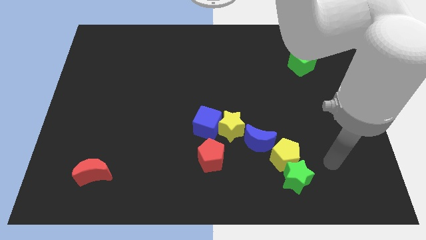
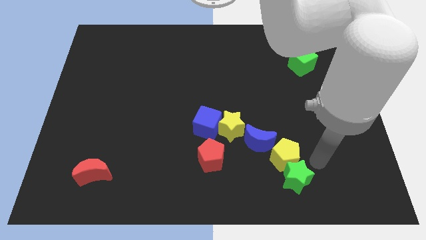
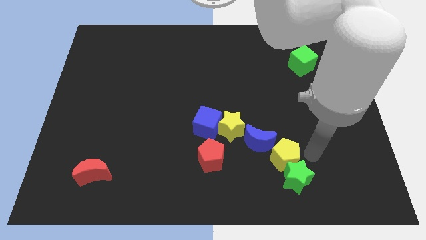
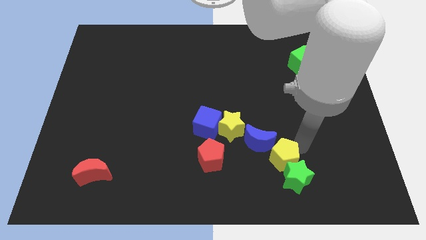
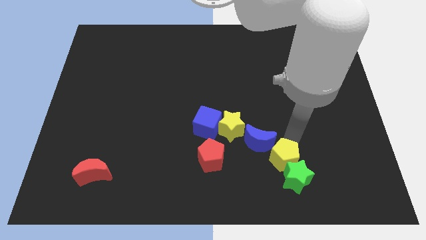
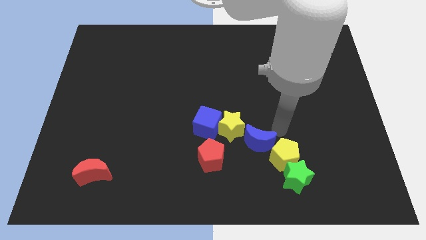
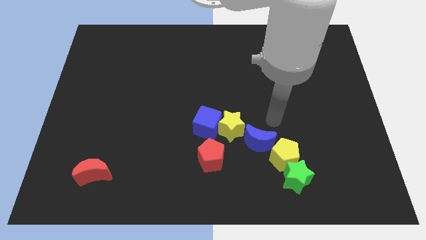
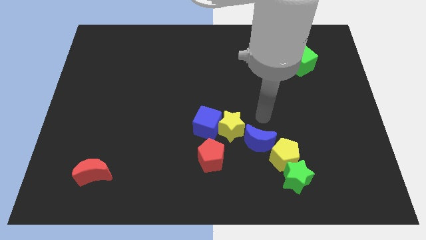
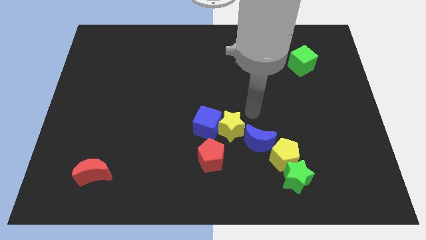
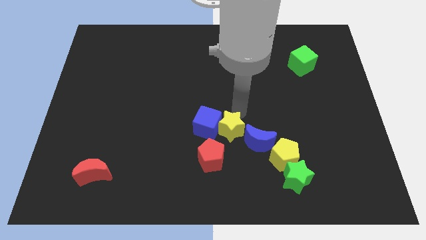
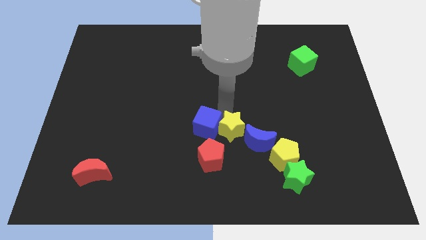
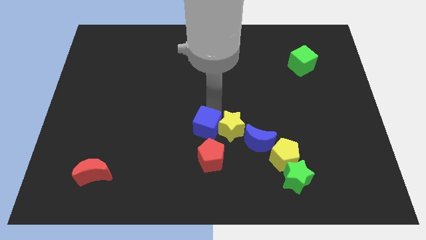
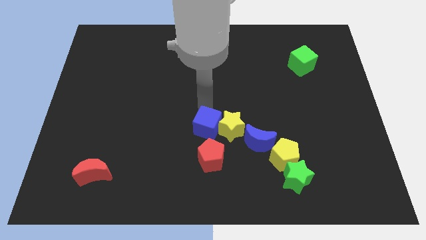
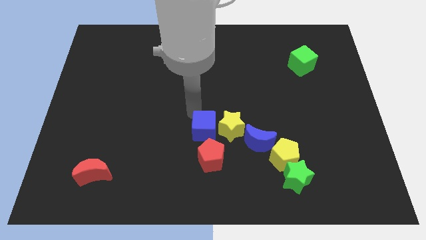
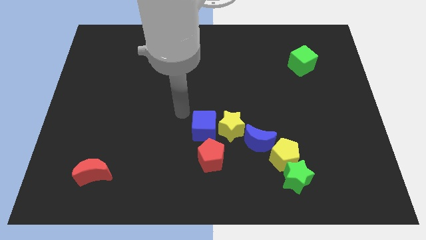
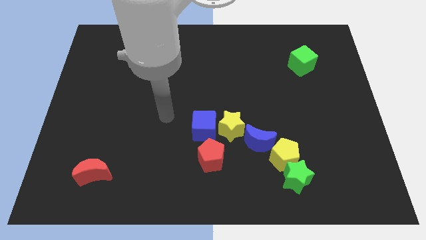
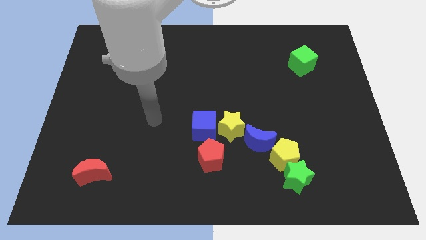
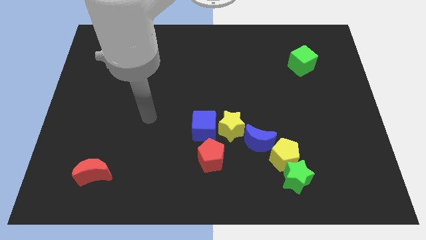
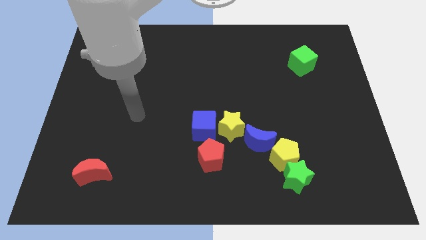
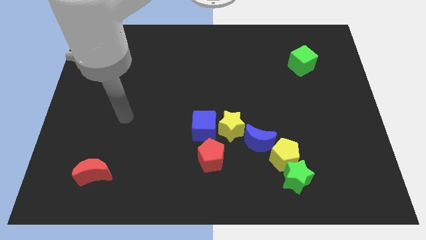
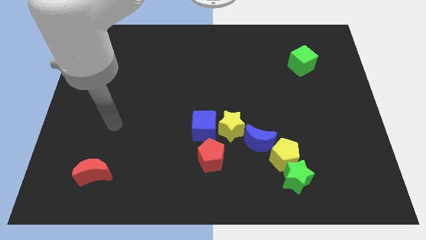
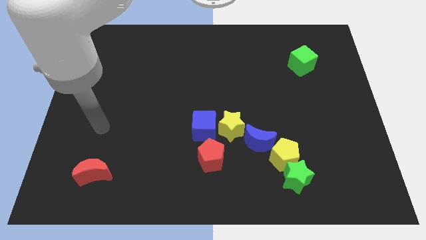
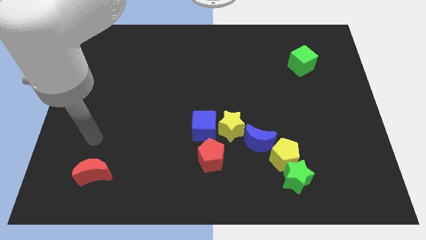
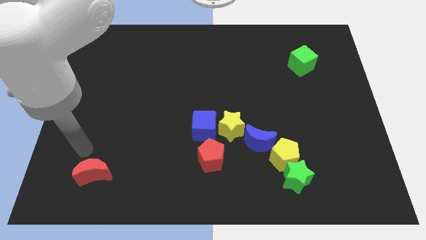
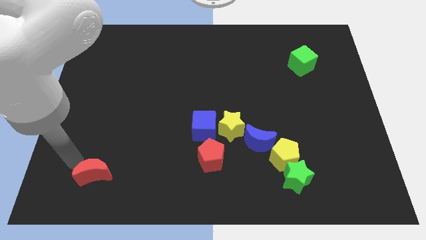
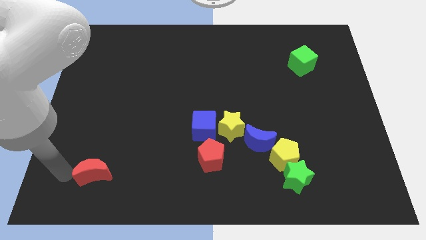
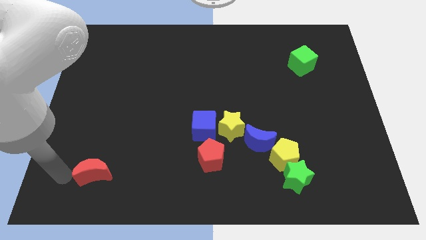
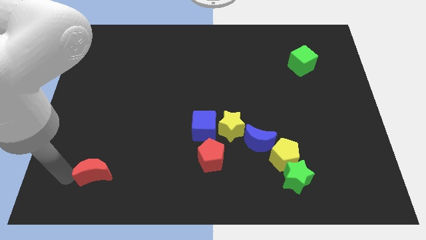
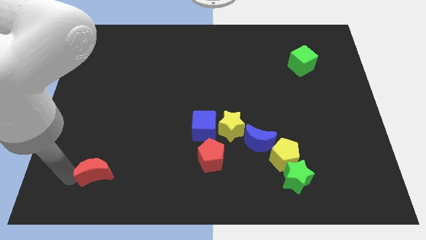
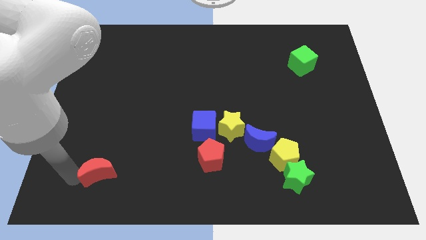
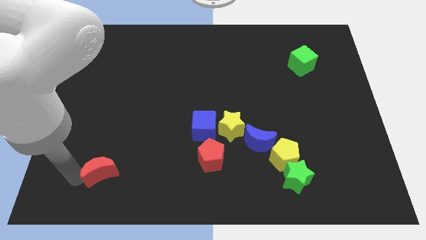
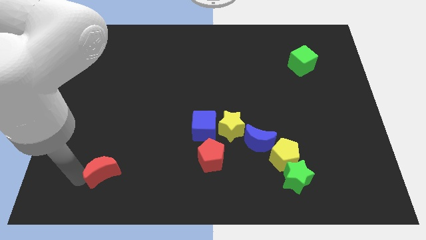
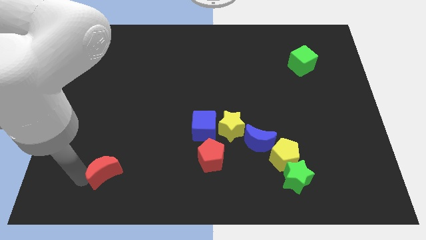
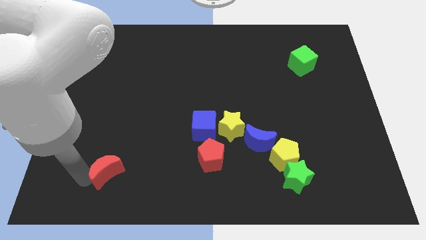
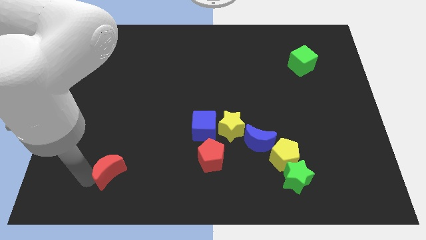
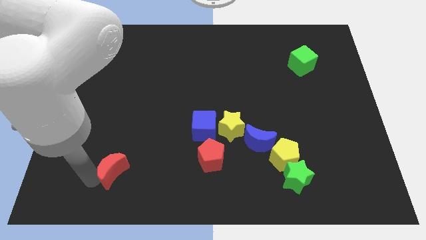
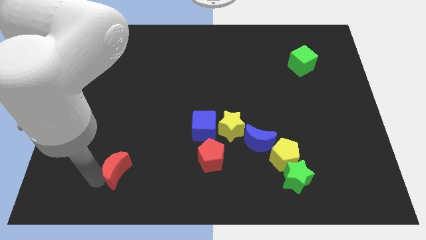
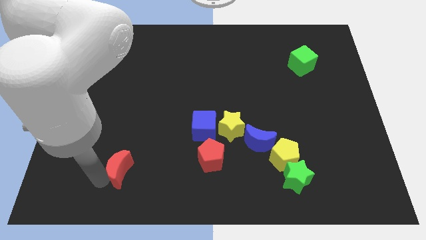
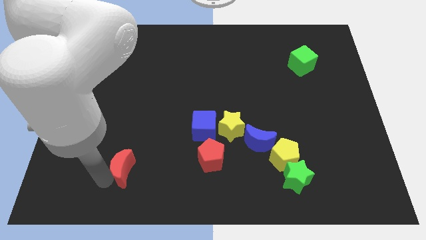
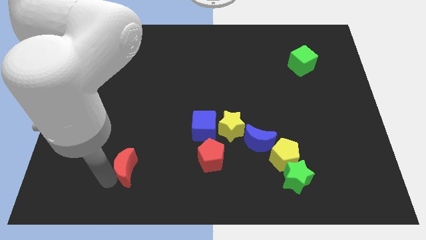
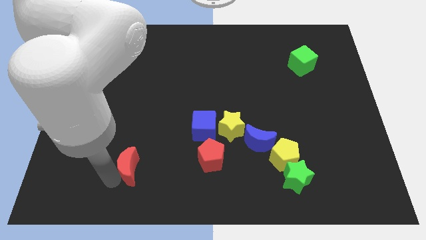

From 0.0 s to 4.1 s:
slightly move the red moon to the right

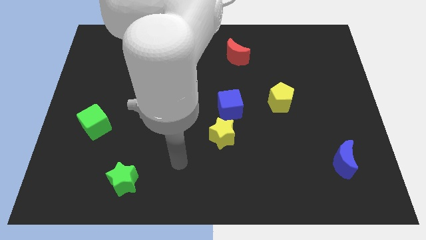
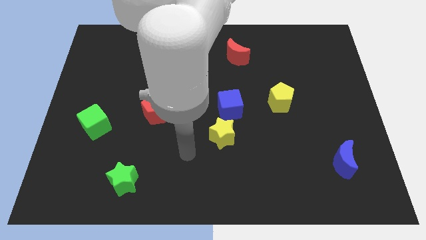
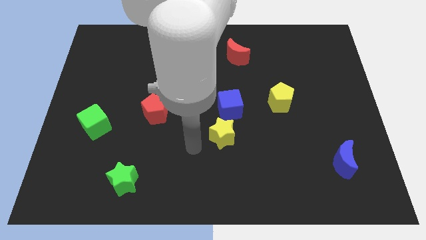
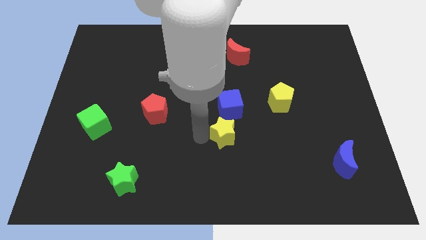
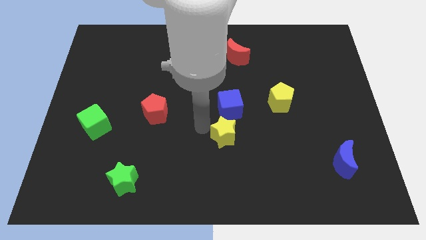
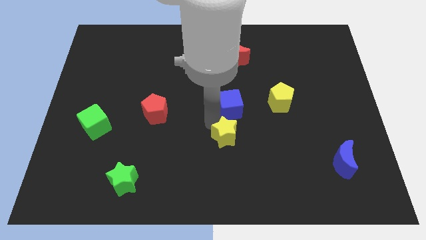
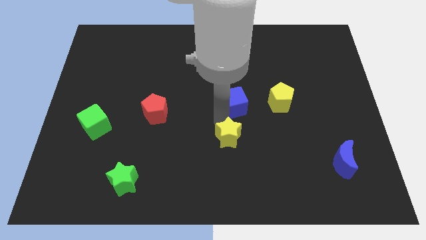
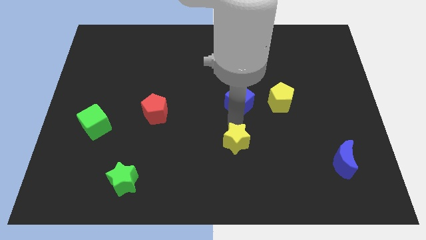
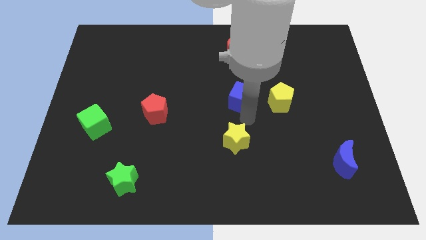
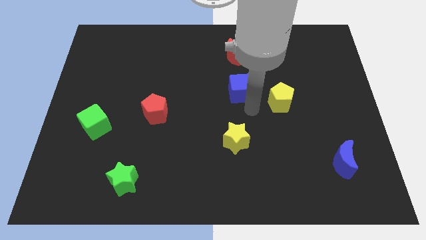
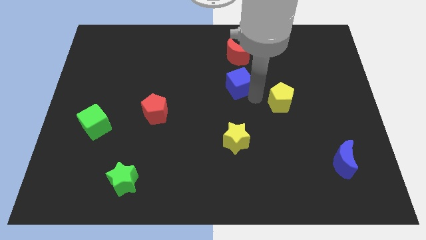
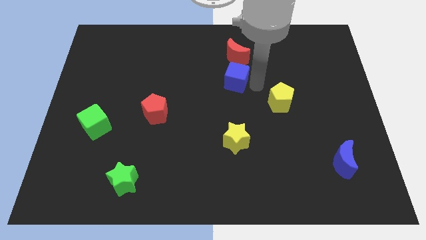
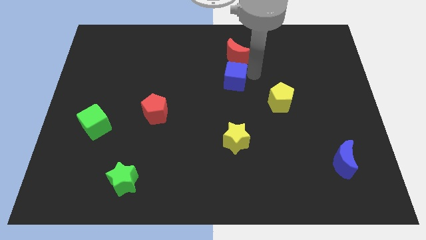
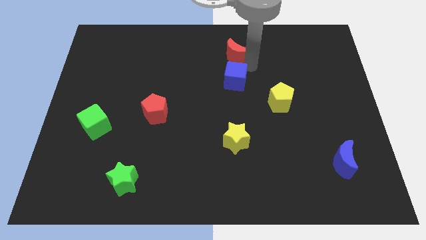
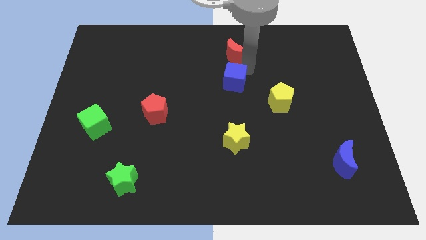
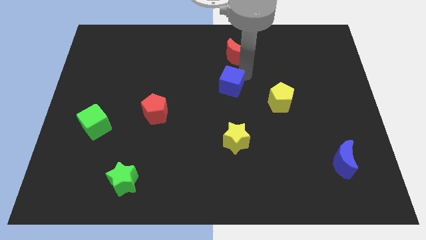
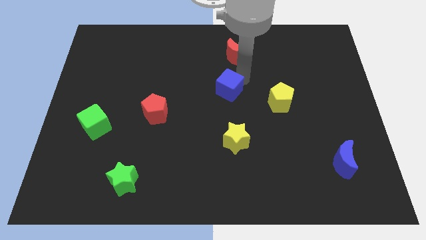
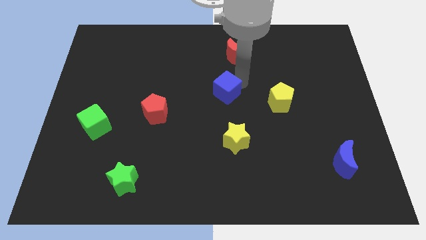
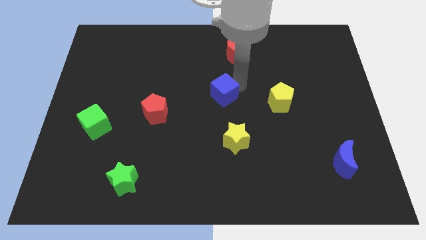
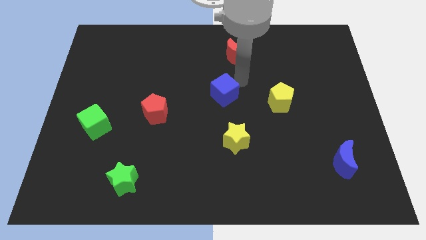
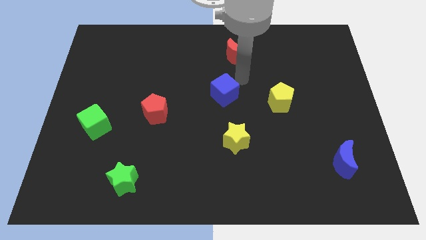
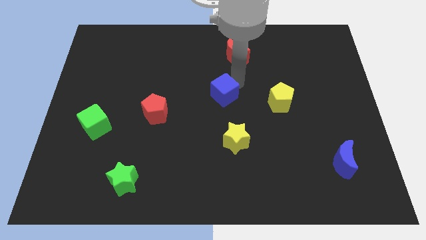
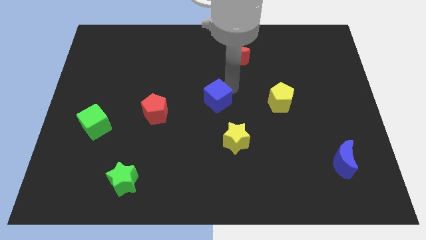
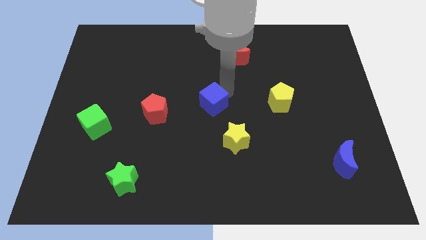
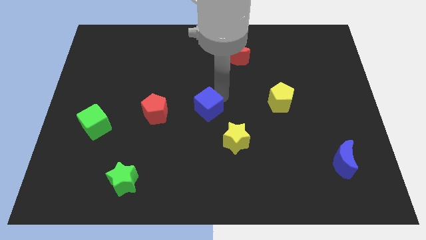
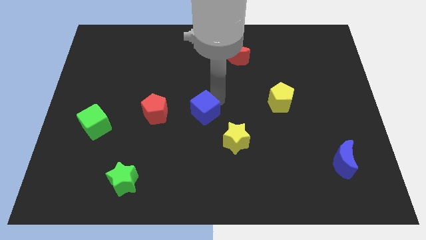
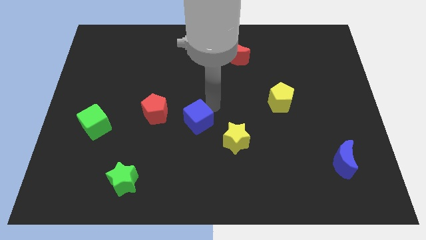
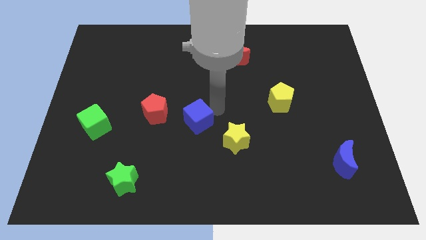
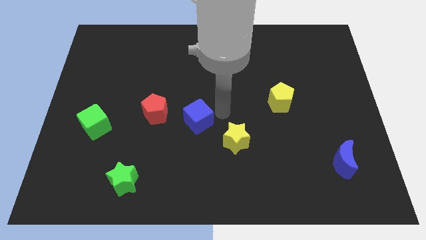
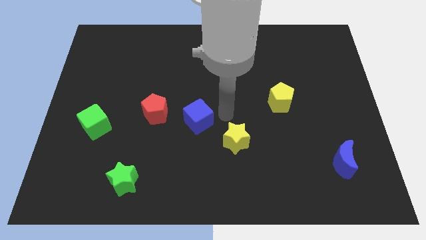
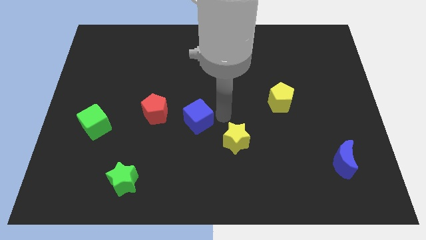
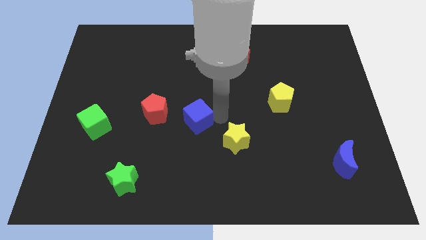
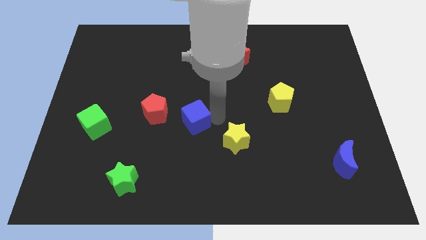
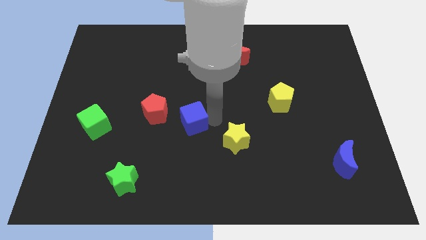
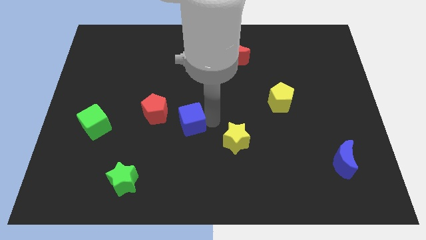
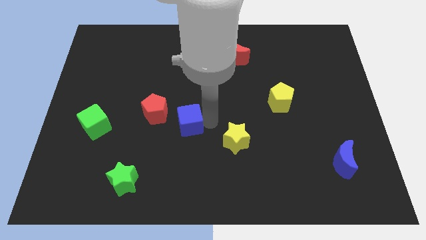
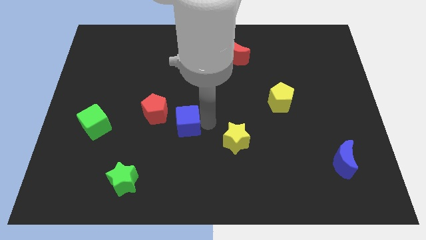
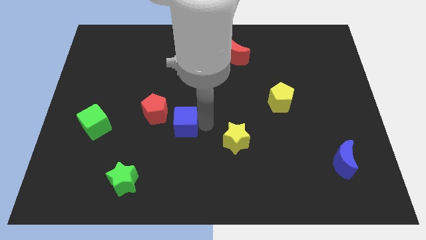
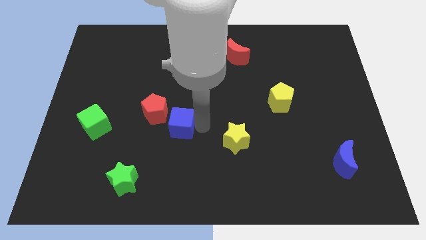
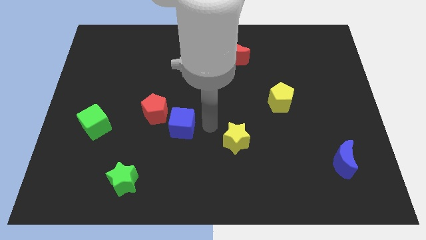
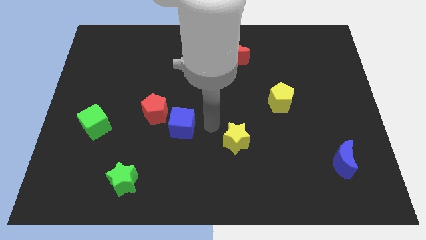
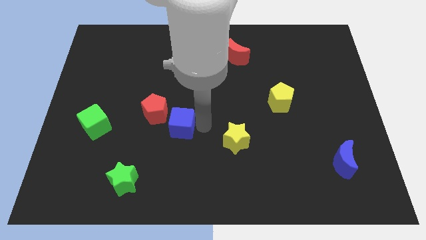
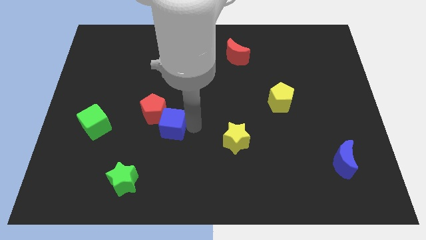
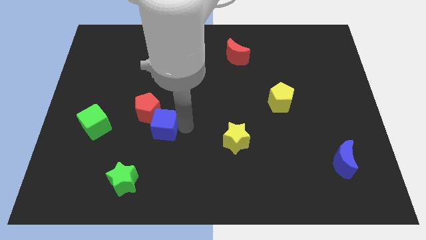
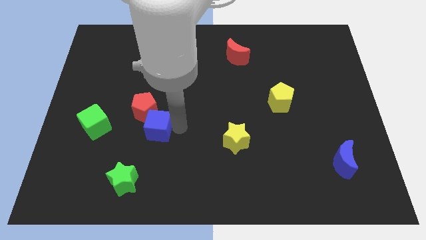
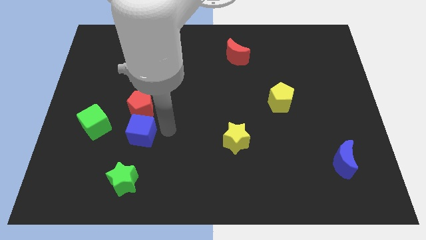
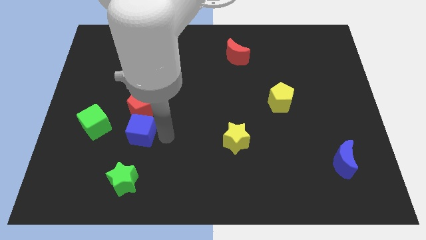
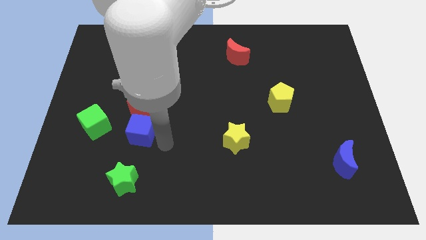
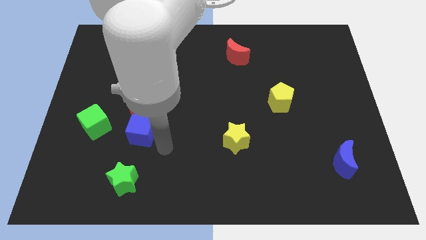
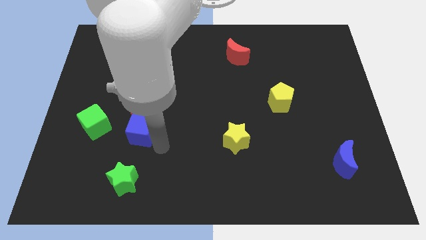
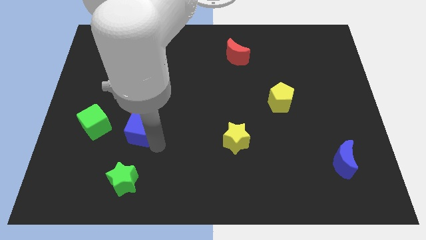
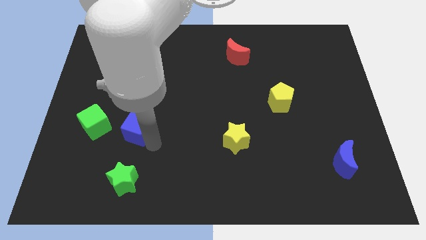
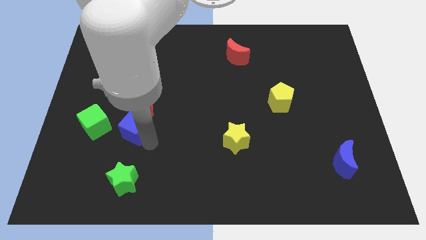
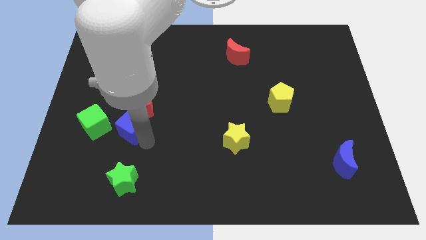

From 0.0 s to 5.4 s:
slide the blue cube left
